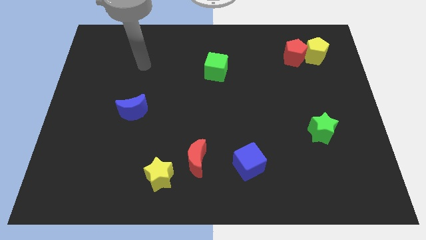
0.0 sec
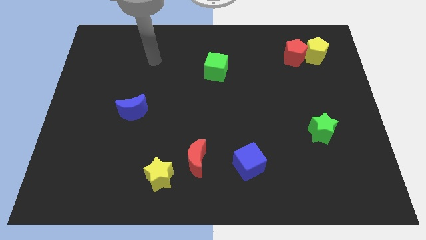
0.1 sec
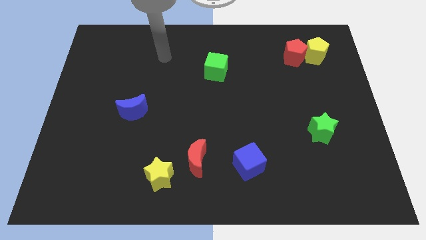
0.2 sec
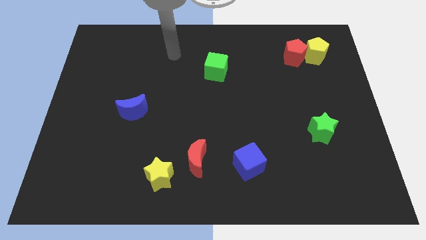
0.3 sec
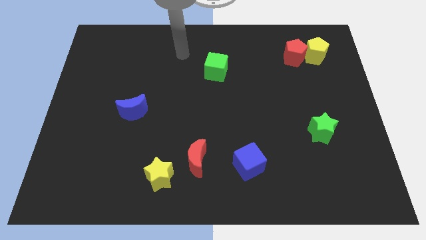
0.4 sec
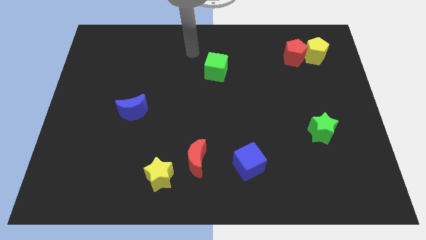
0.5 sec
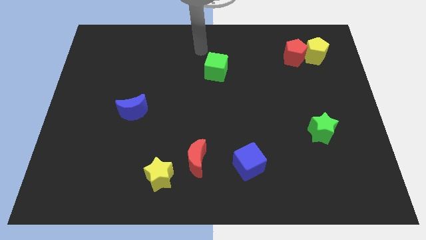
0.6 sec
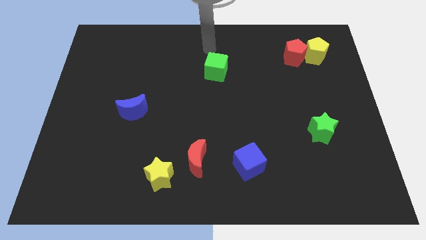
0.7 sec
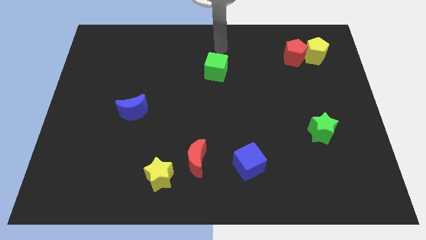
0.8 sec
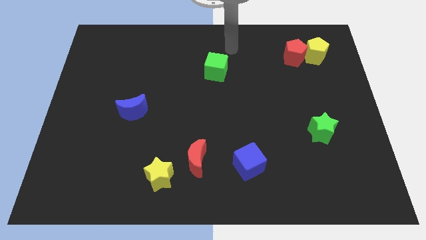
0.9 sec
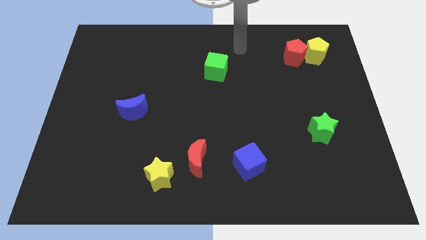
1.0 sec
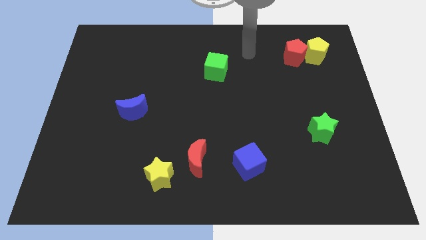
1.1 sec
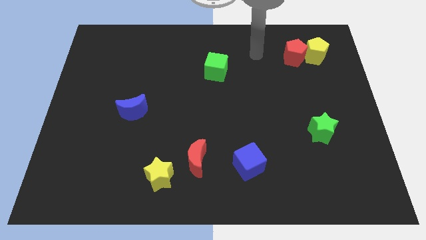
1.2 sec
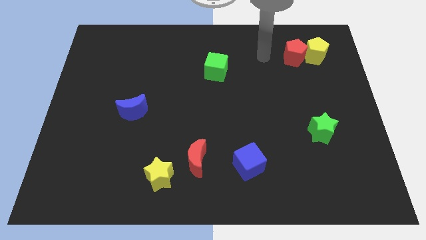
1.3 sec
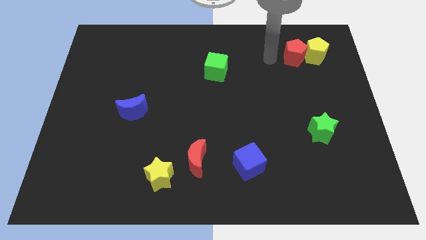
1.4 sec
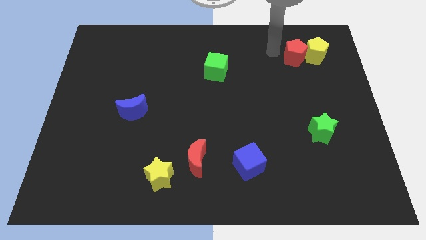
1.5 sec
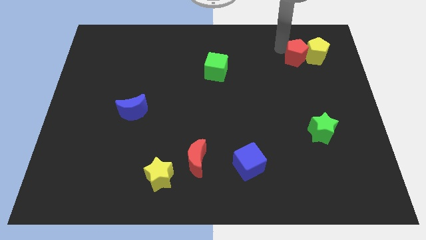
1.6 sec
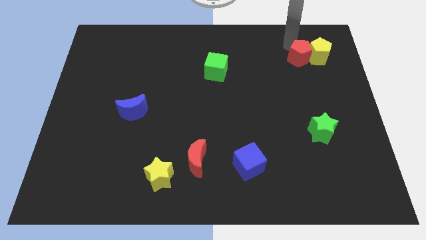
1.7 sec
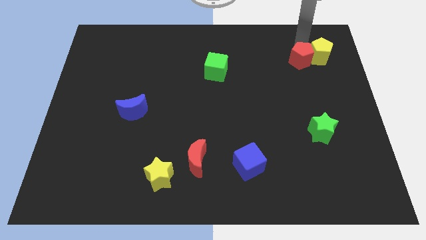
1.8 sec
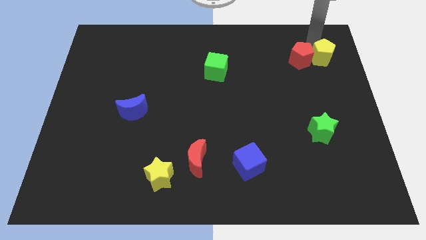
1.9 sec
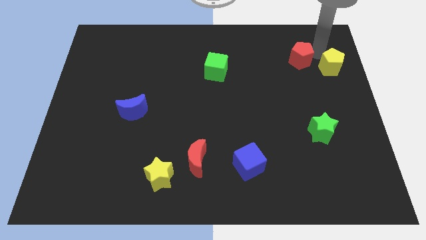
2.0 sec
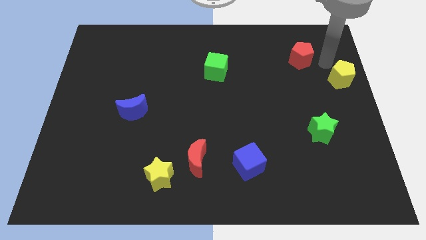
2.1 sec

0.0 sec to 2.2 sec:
move the red pentagon away from the yellow pentagon

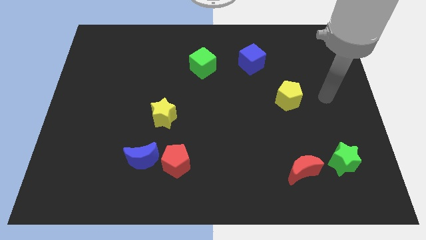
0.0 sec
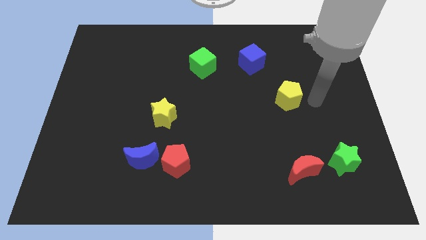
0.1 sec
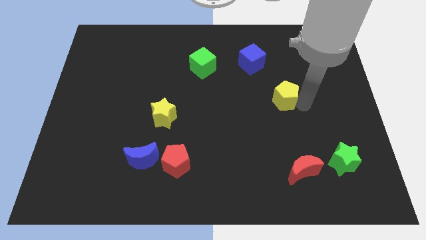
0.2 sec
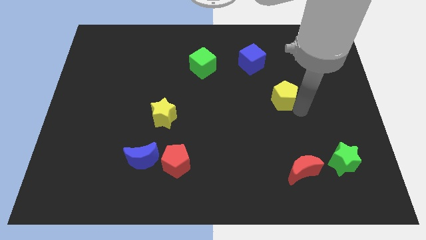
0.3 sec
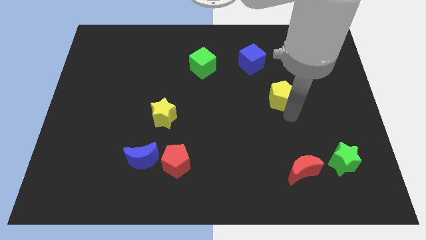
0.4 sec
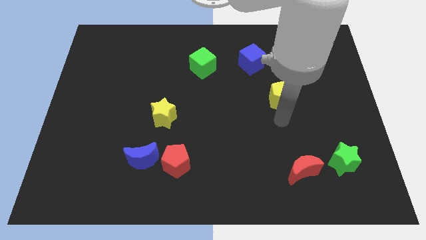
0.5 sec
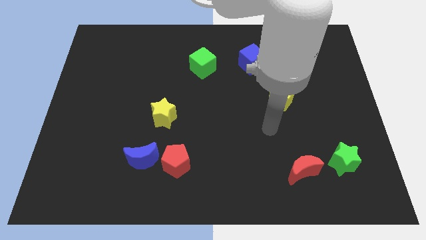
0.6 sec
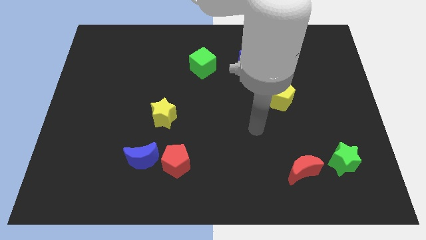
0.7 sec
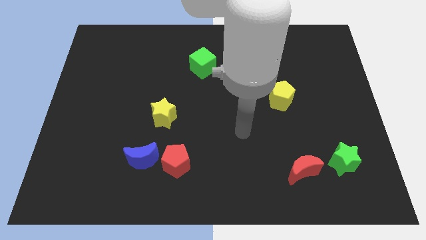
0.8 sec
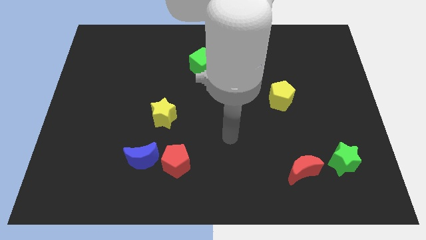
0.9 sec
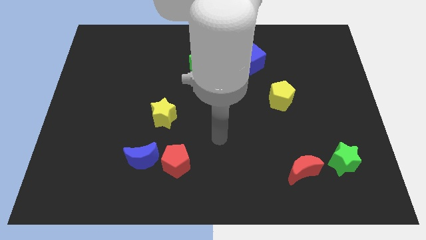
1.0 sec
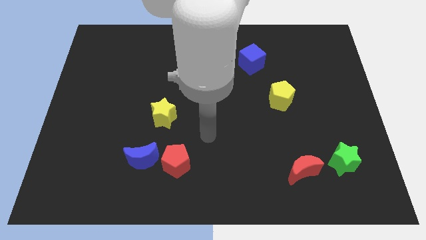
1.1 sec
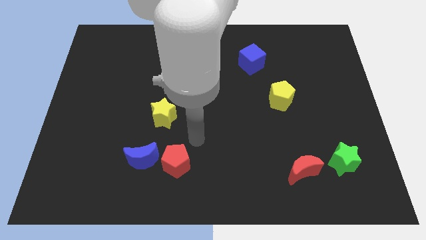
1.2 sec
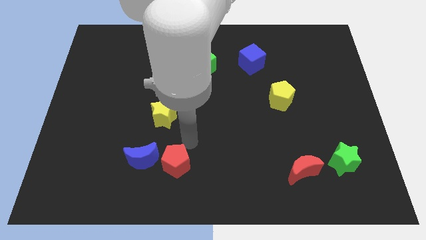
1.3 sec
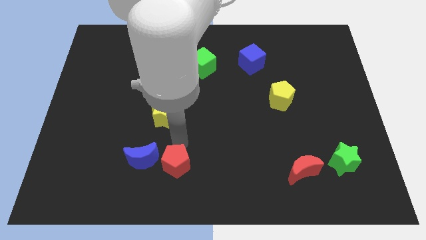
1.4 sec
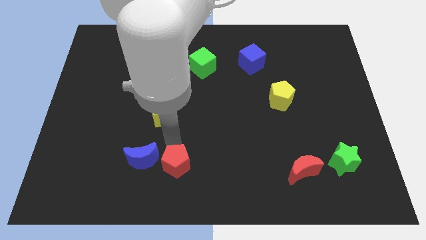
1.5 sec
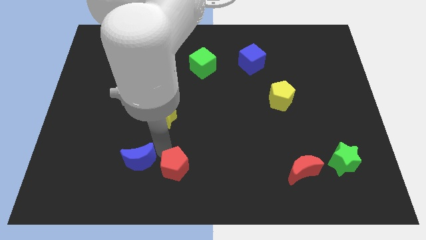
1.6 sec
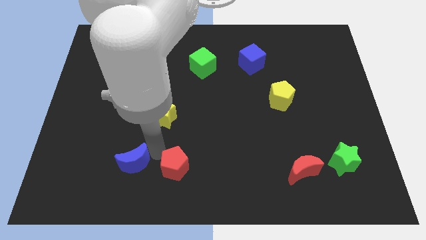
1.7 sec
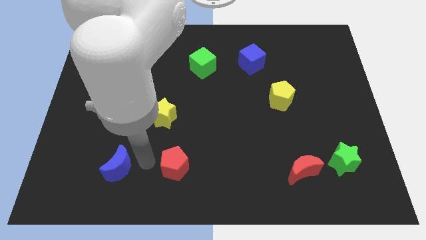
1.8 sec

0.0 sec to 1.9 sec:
separate the red pentagon from the blue moon

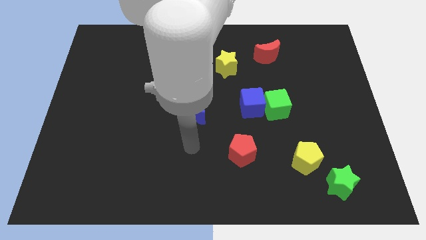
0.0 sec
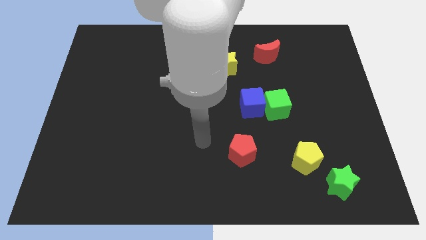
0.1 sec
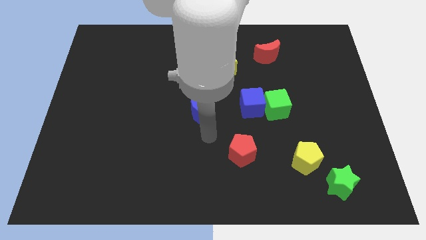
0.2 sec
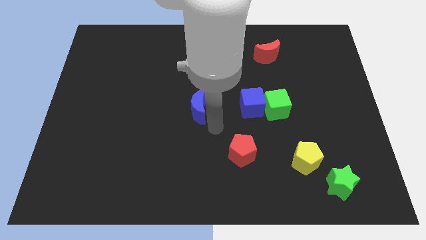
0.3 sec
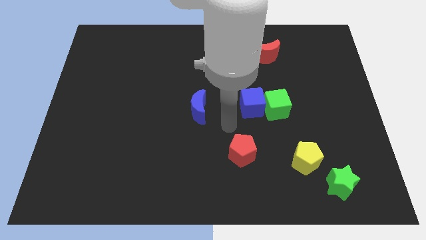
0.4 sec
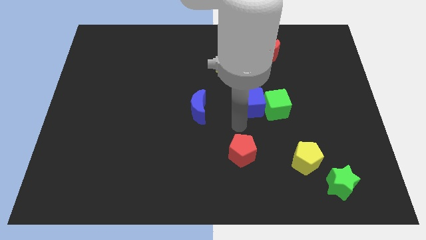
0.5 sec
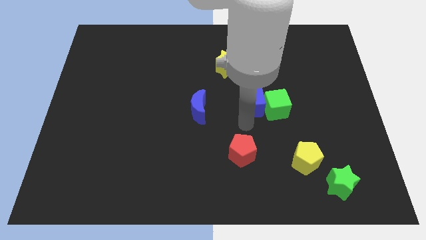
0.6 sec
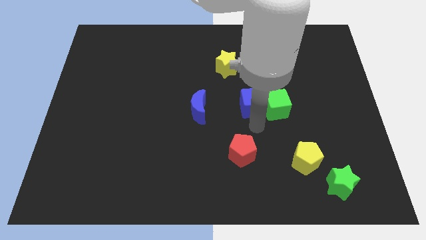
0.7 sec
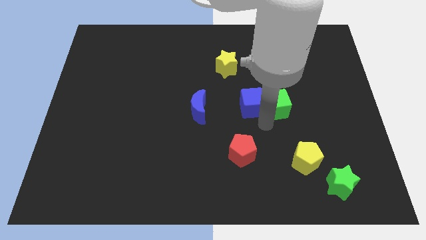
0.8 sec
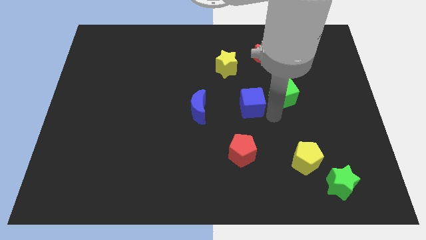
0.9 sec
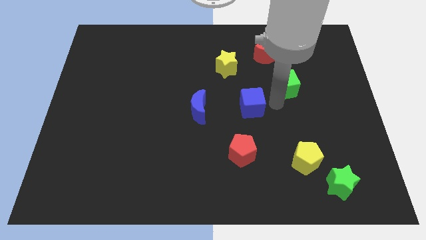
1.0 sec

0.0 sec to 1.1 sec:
separate the blue cube from the green cube

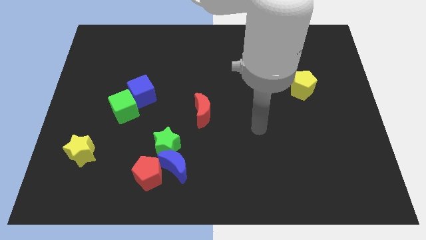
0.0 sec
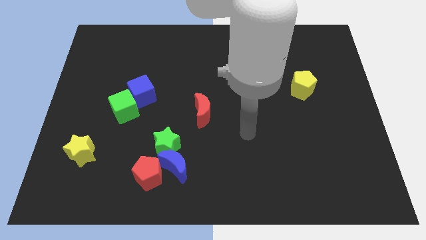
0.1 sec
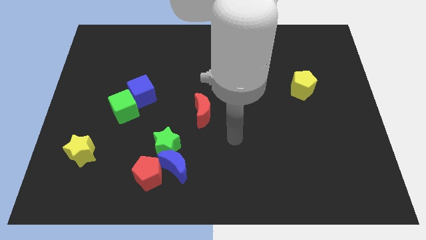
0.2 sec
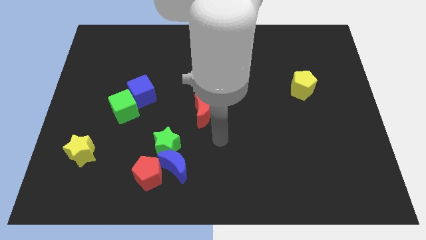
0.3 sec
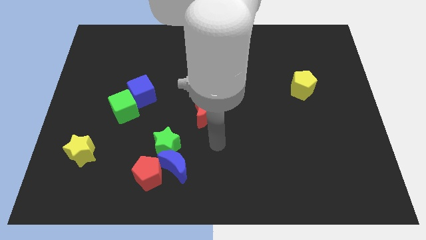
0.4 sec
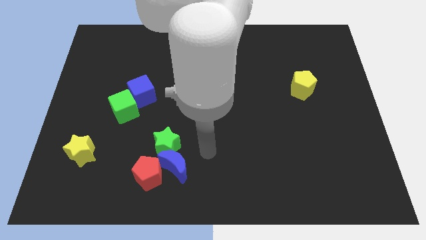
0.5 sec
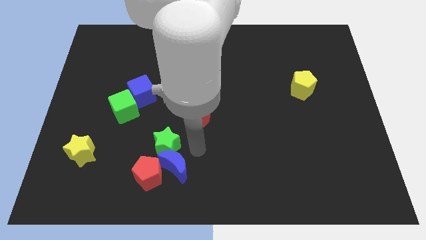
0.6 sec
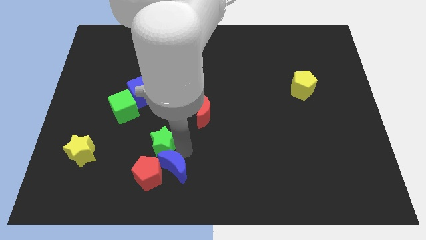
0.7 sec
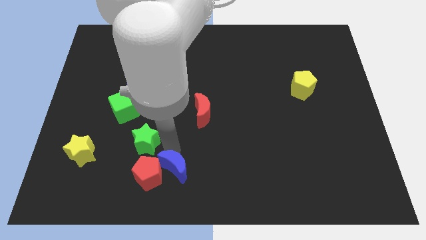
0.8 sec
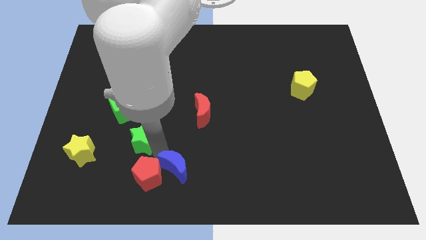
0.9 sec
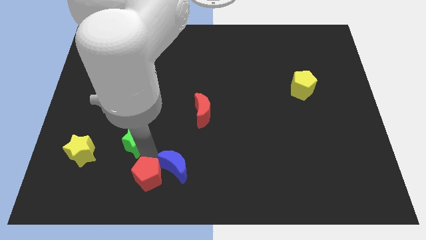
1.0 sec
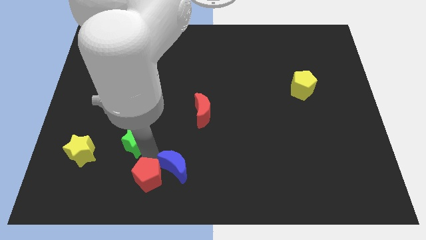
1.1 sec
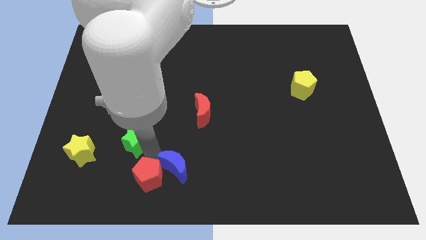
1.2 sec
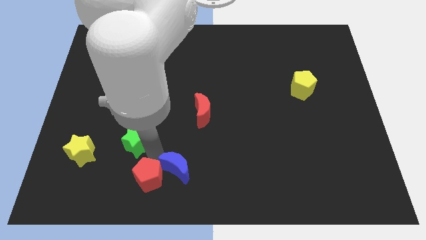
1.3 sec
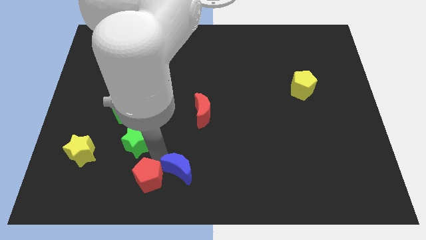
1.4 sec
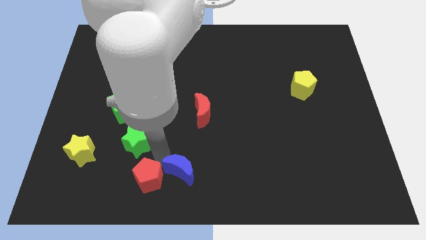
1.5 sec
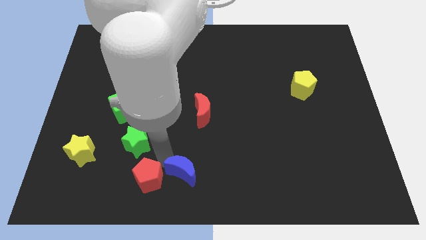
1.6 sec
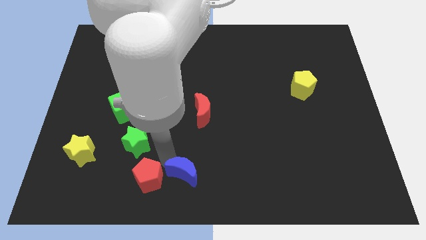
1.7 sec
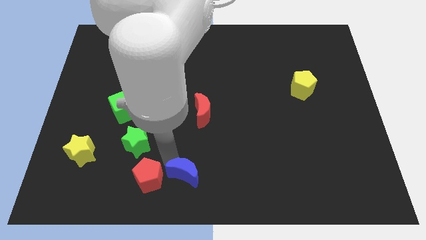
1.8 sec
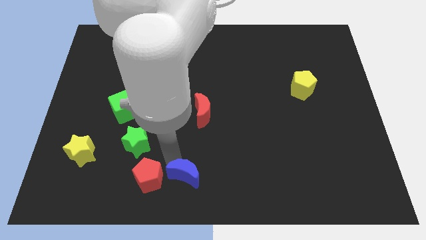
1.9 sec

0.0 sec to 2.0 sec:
pull the blue moon apart from the green star and red pentagon

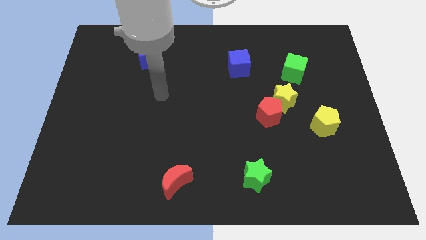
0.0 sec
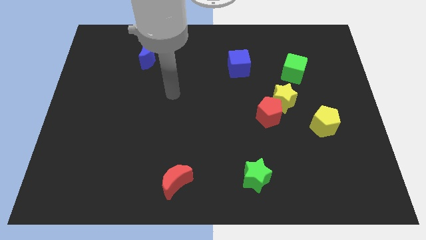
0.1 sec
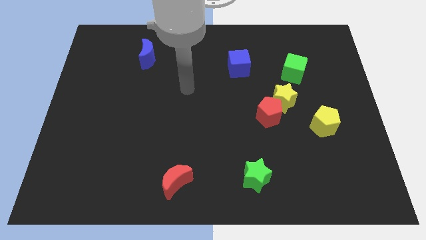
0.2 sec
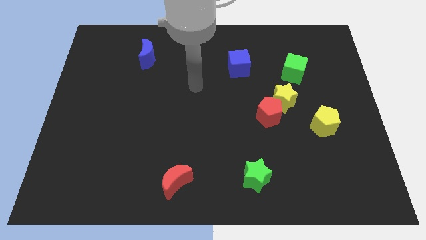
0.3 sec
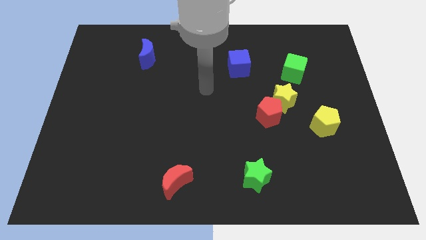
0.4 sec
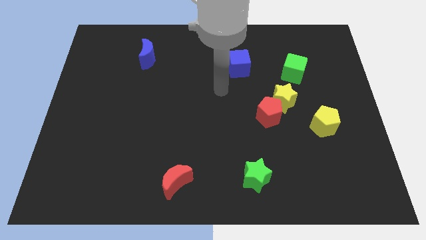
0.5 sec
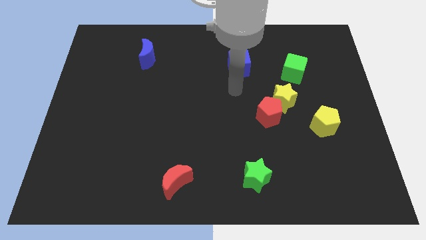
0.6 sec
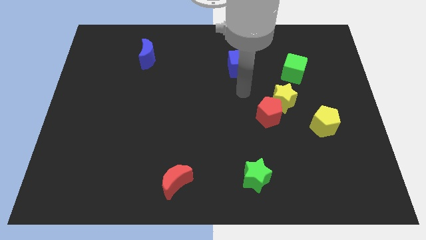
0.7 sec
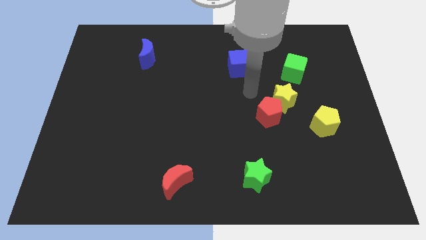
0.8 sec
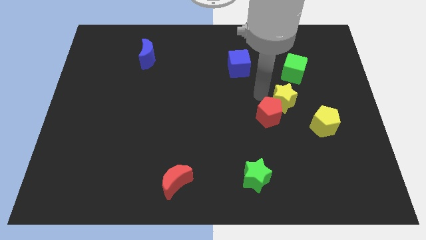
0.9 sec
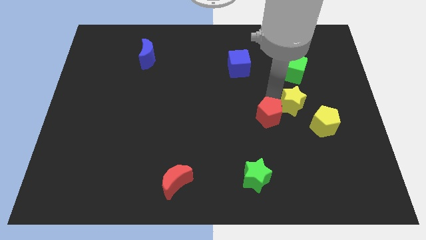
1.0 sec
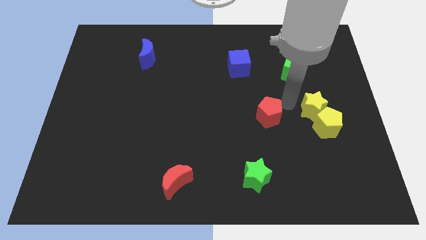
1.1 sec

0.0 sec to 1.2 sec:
separate the red pentagon from the yellow star

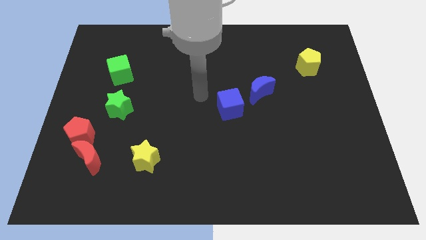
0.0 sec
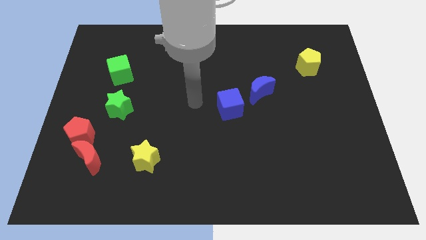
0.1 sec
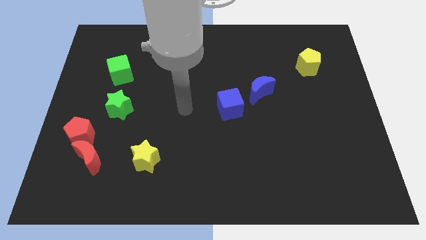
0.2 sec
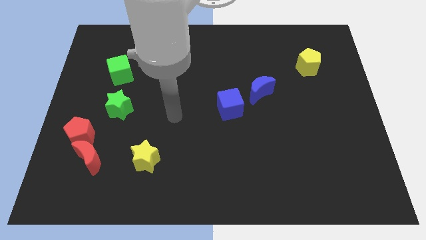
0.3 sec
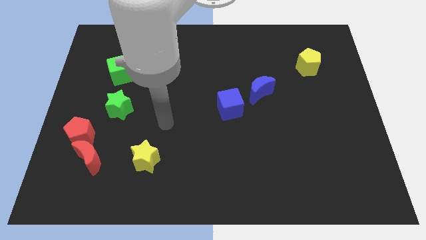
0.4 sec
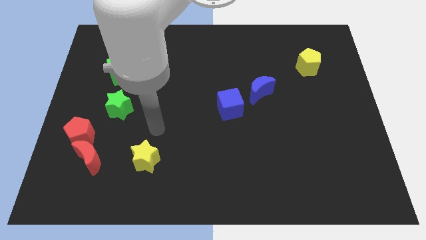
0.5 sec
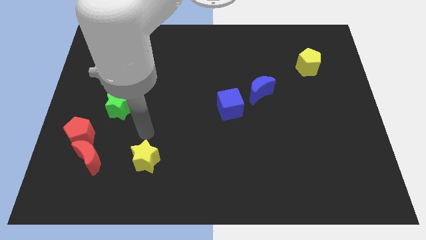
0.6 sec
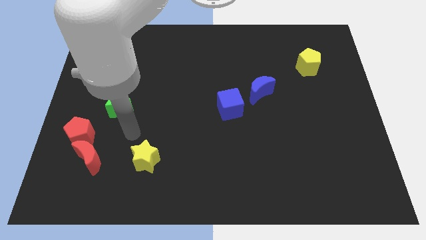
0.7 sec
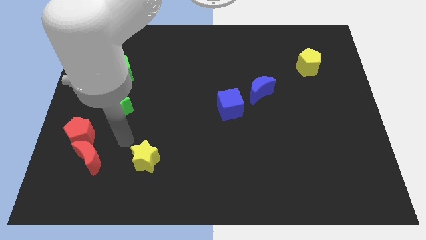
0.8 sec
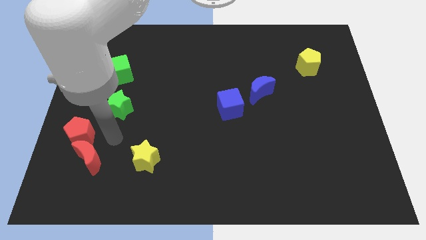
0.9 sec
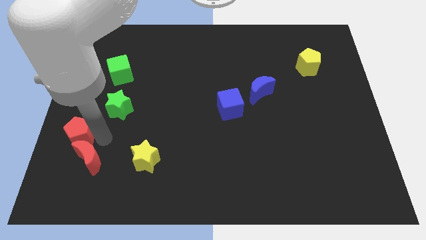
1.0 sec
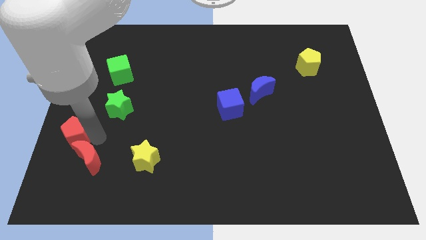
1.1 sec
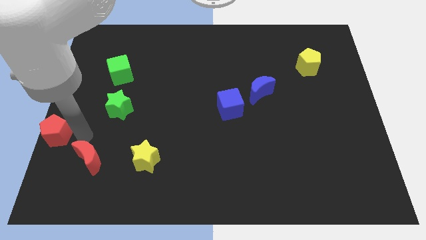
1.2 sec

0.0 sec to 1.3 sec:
separate the red moon from the red pentagon
